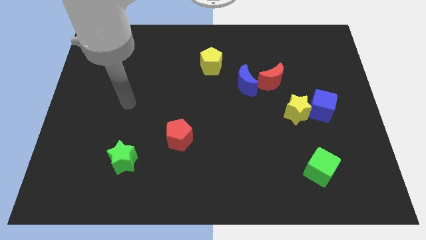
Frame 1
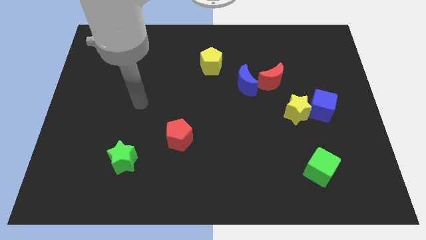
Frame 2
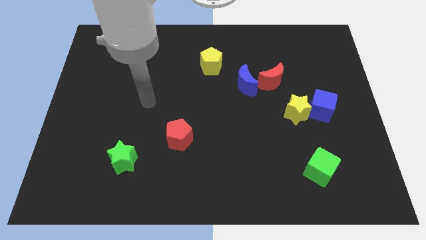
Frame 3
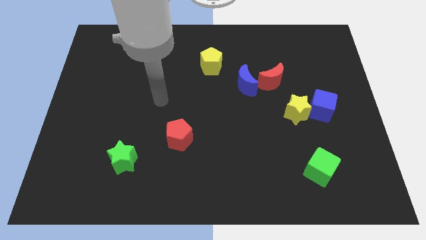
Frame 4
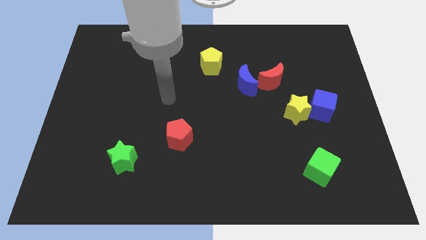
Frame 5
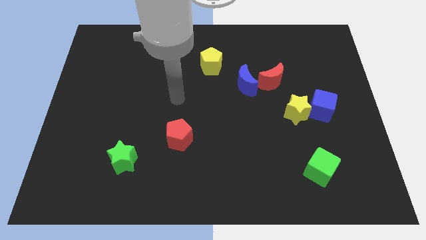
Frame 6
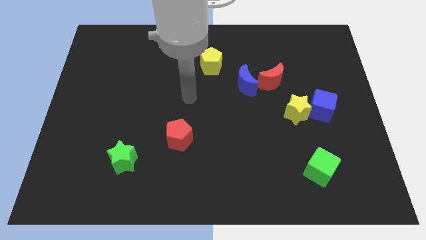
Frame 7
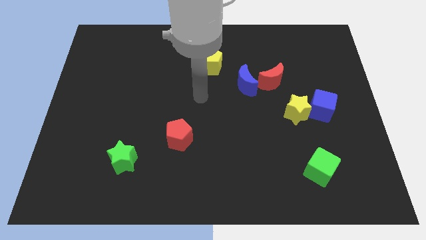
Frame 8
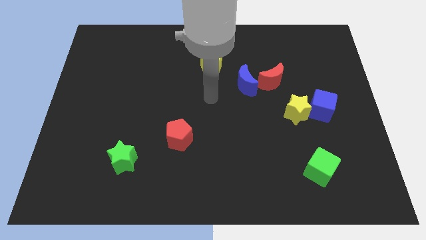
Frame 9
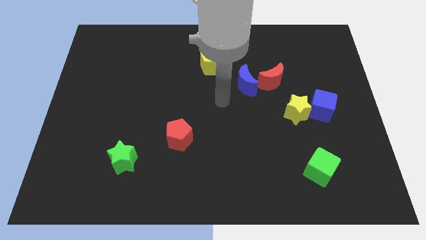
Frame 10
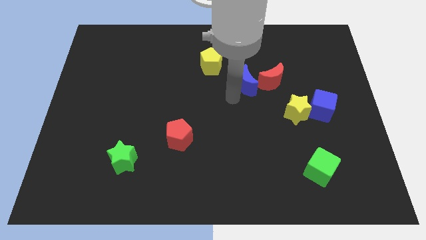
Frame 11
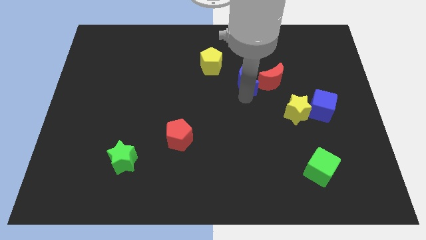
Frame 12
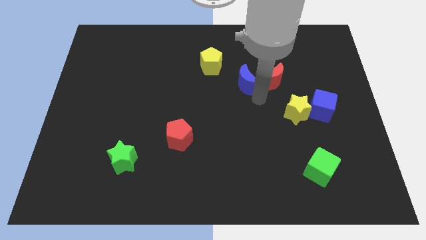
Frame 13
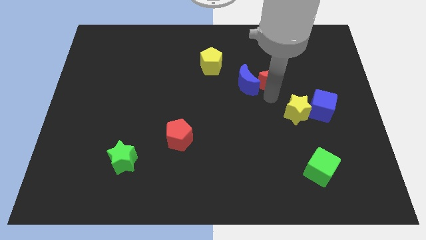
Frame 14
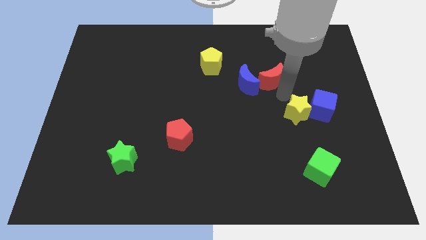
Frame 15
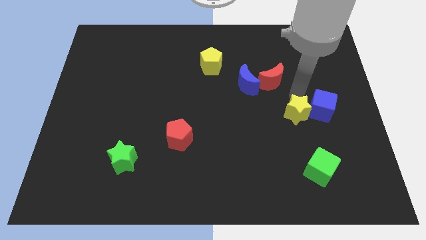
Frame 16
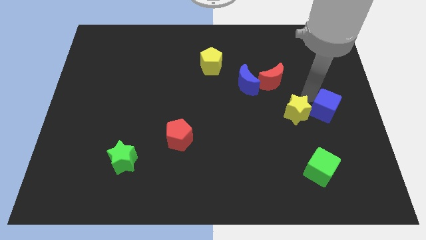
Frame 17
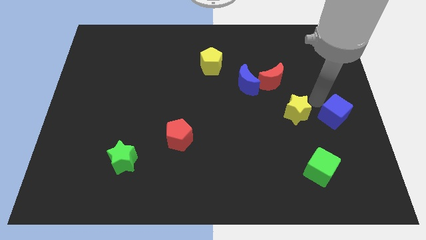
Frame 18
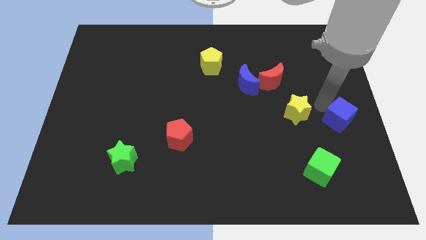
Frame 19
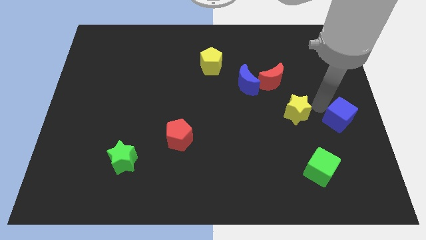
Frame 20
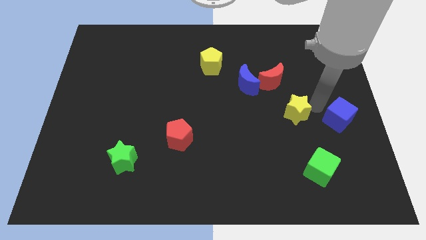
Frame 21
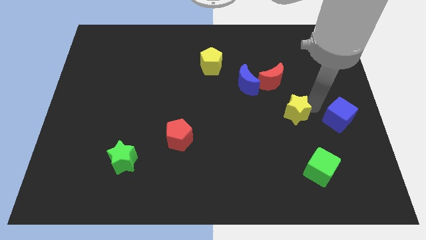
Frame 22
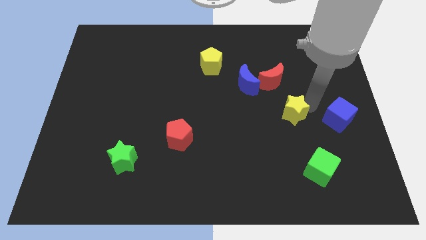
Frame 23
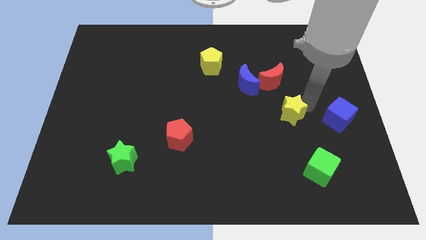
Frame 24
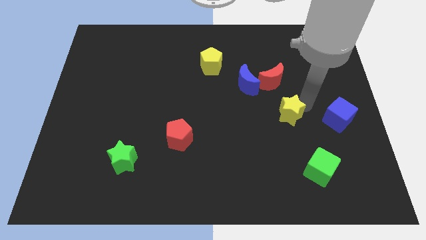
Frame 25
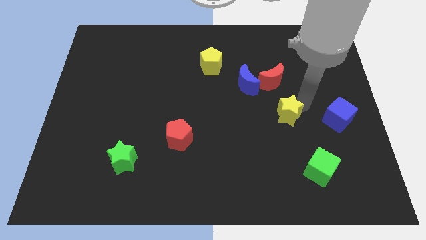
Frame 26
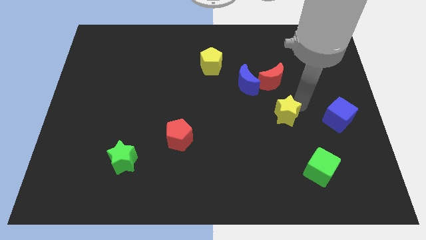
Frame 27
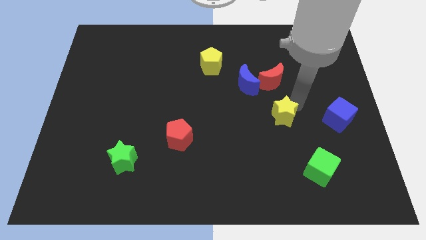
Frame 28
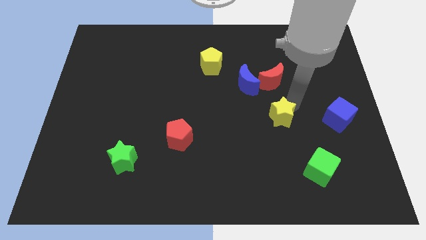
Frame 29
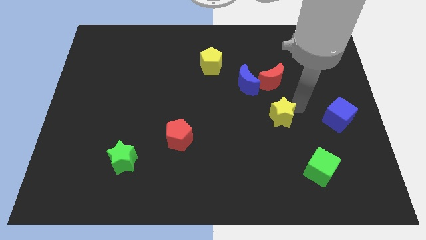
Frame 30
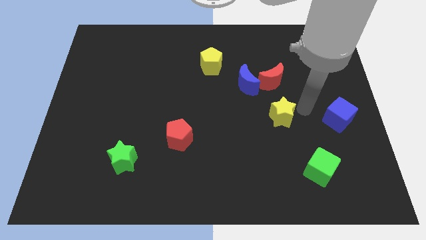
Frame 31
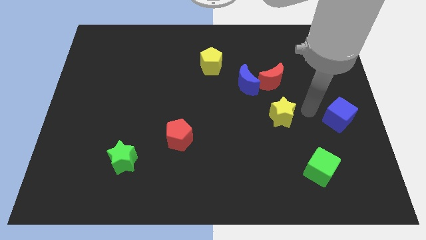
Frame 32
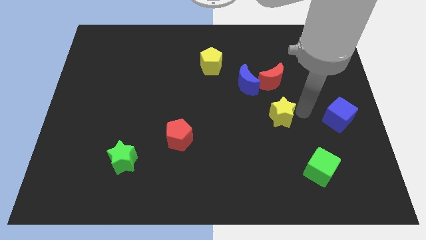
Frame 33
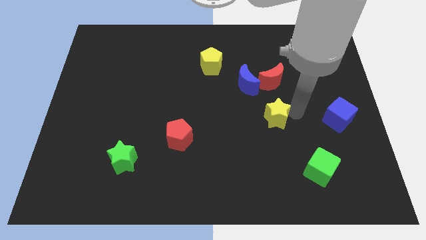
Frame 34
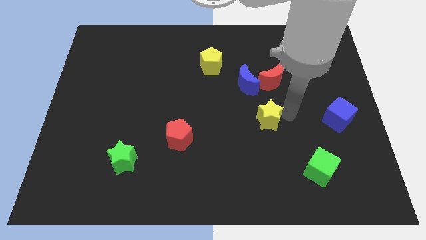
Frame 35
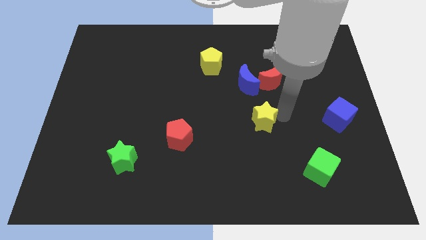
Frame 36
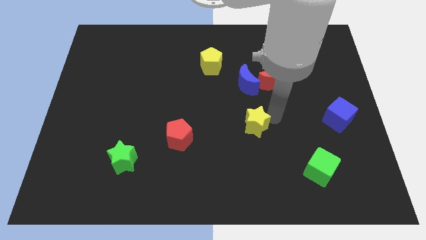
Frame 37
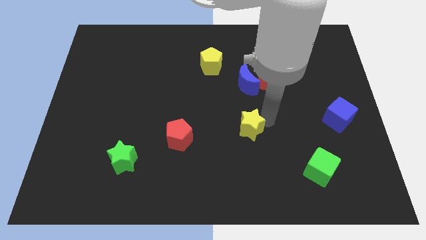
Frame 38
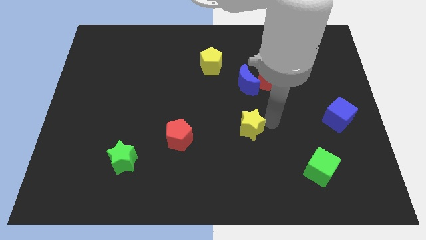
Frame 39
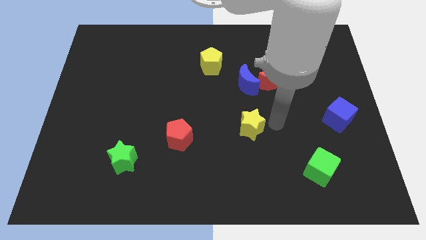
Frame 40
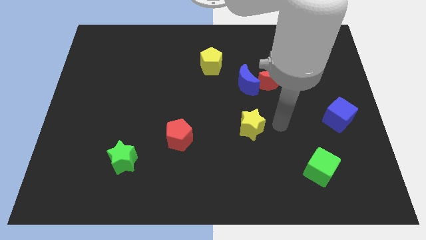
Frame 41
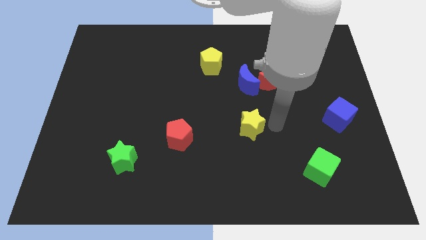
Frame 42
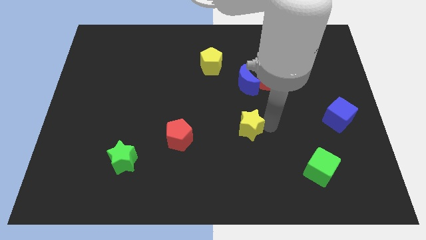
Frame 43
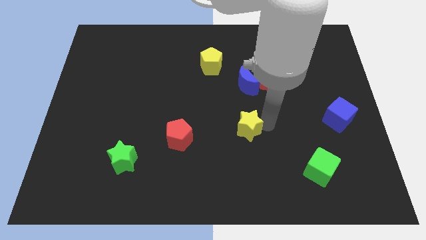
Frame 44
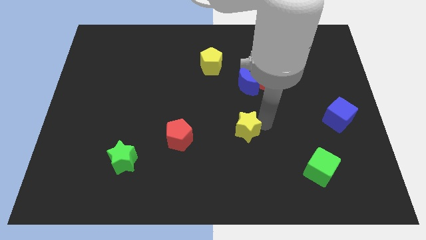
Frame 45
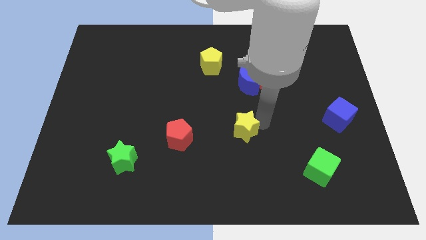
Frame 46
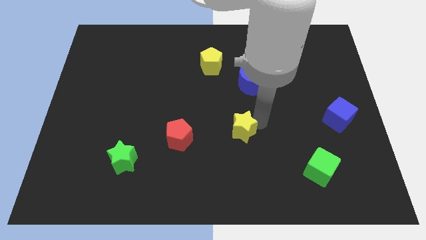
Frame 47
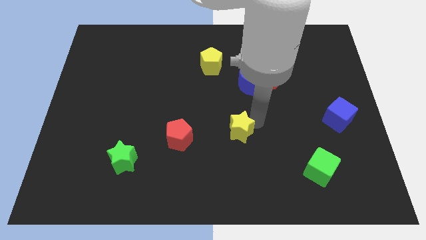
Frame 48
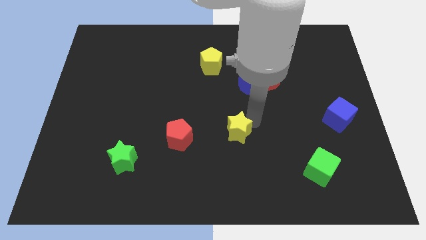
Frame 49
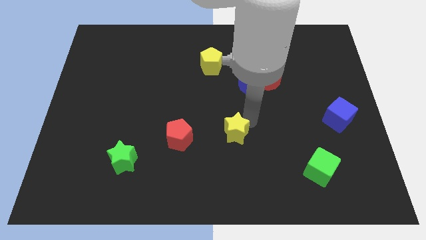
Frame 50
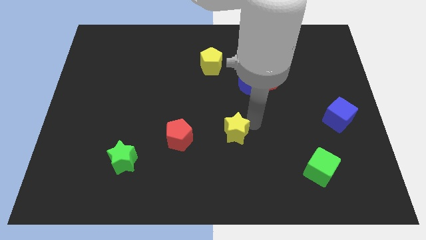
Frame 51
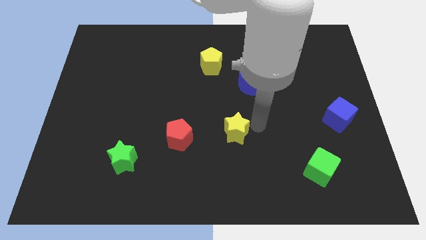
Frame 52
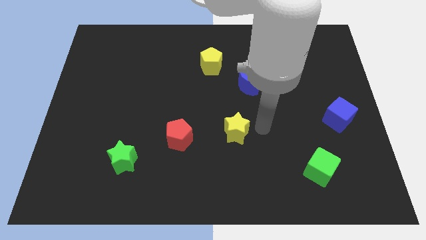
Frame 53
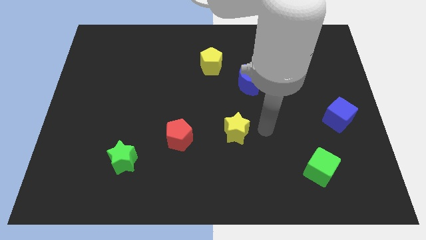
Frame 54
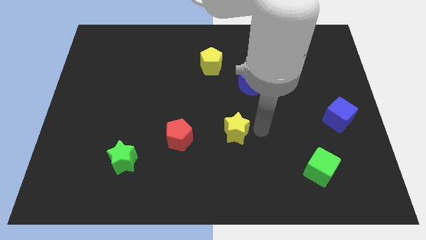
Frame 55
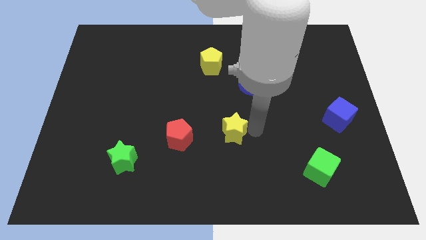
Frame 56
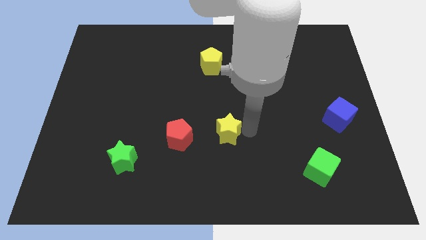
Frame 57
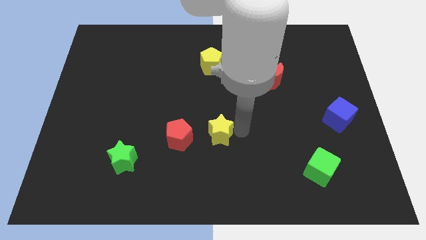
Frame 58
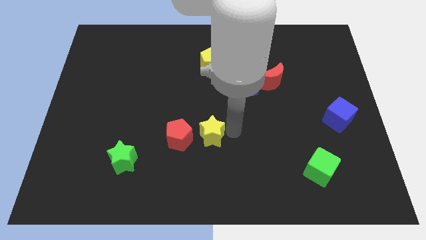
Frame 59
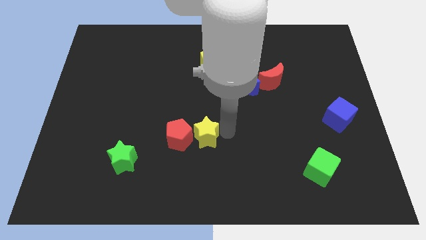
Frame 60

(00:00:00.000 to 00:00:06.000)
slide the yellow star next to the red pentagon

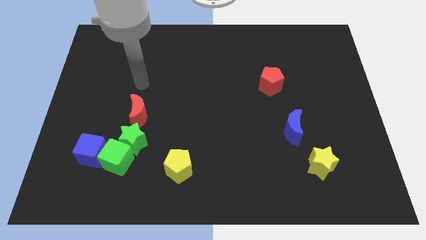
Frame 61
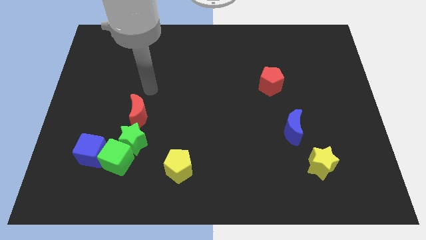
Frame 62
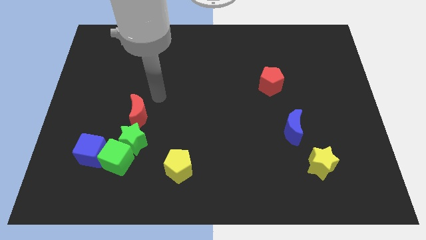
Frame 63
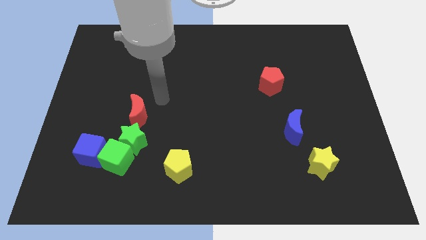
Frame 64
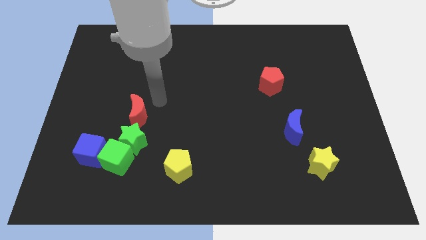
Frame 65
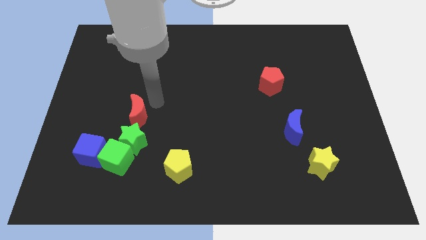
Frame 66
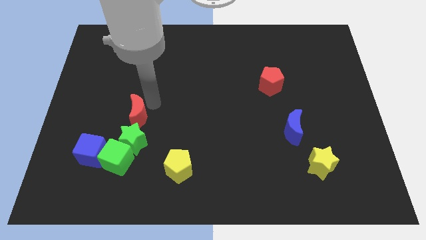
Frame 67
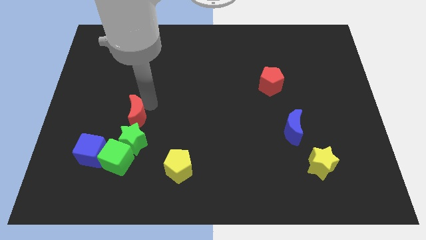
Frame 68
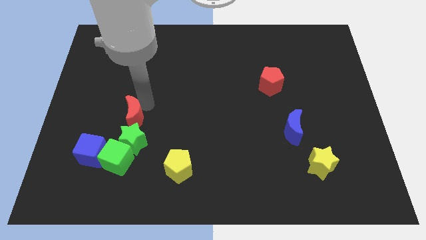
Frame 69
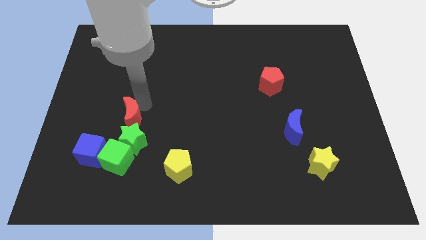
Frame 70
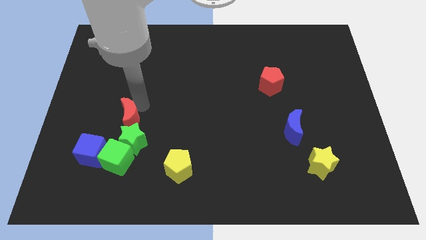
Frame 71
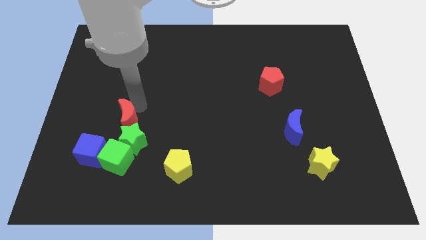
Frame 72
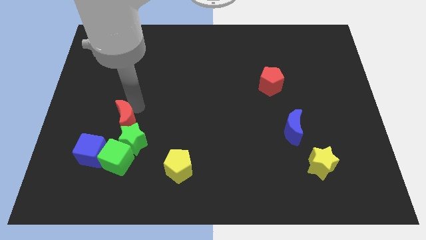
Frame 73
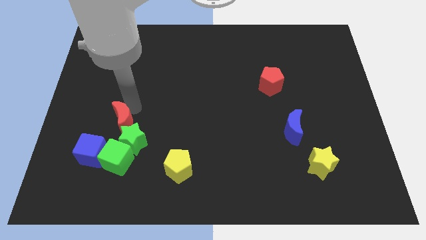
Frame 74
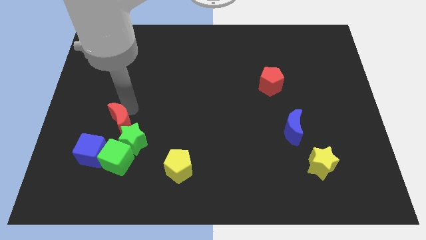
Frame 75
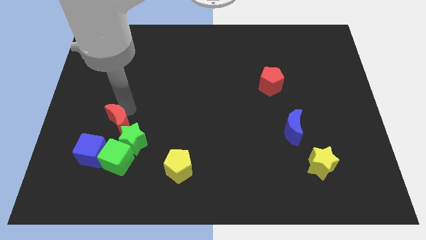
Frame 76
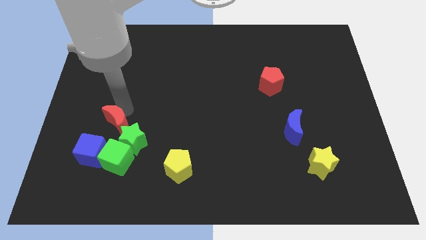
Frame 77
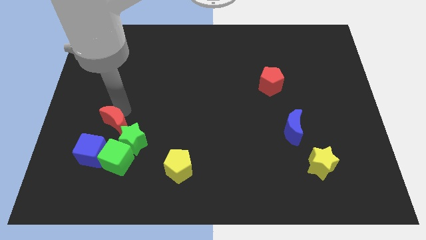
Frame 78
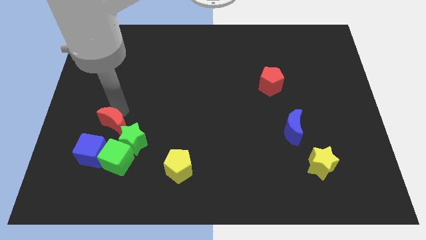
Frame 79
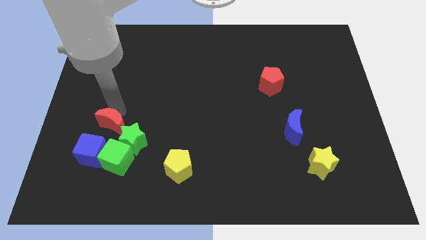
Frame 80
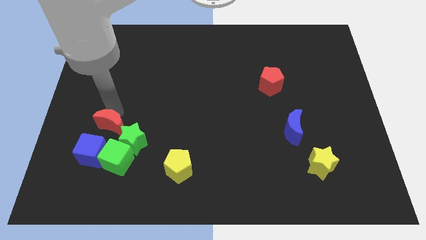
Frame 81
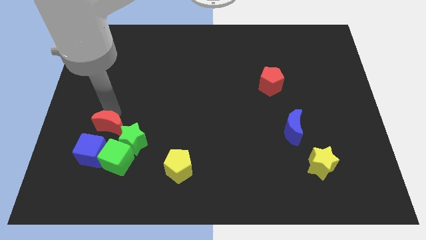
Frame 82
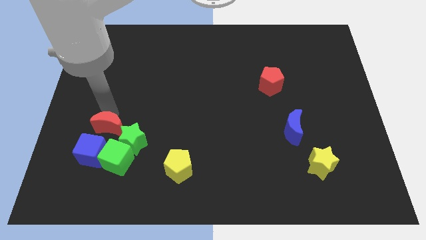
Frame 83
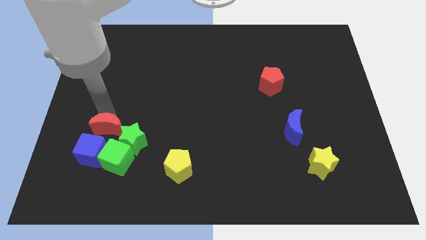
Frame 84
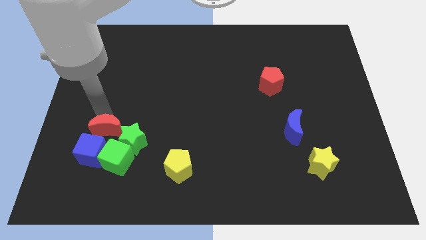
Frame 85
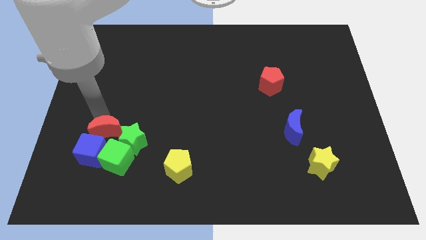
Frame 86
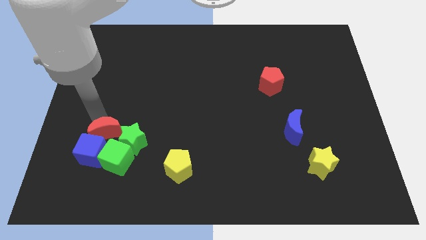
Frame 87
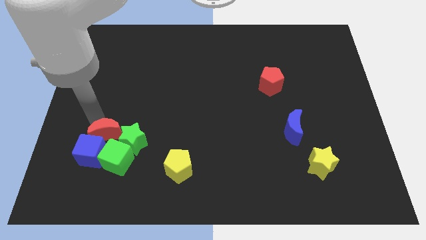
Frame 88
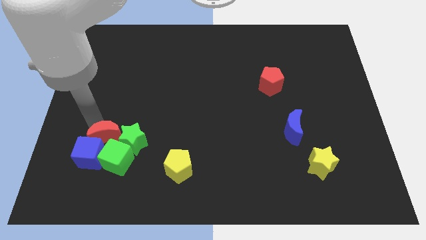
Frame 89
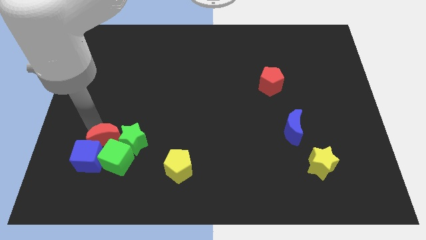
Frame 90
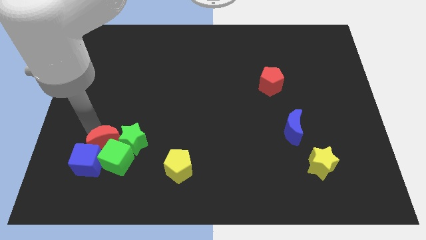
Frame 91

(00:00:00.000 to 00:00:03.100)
put the red moon to the green cube
